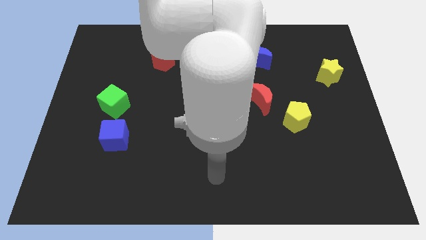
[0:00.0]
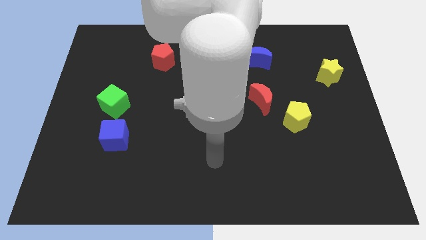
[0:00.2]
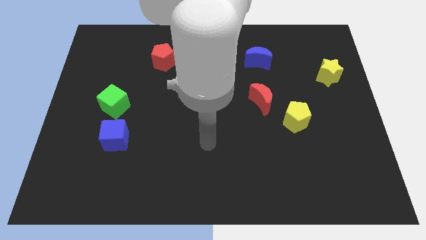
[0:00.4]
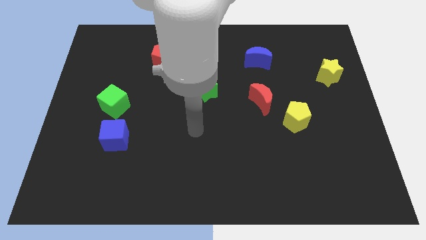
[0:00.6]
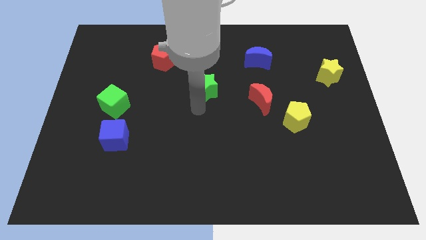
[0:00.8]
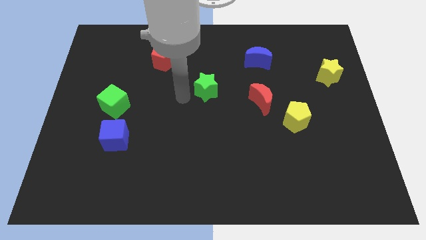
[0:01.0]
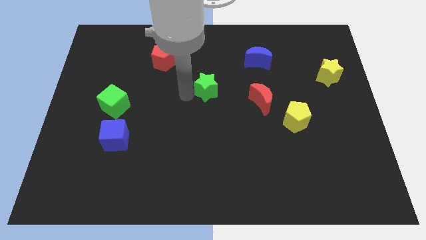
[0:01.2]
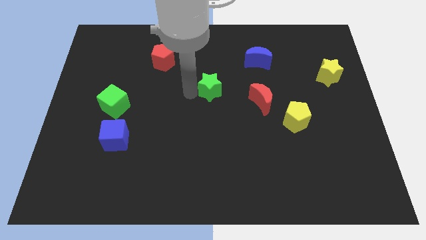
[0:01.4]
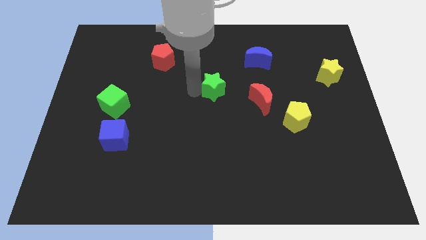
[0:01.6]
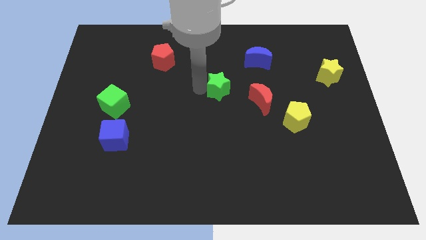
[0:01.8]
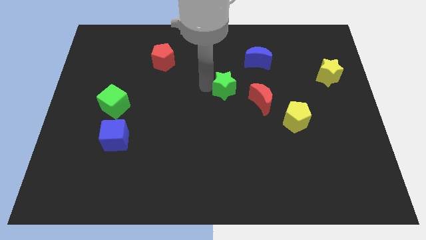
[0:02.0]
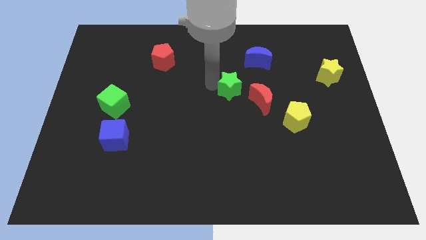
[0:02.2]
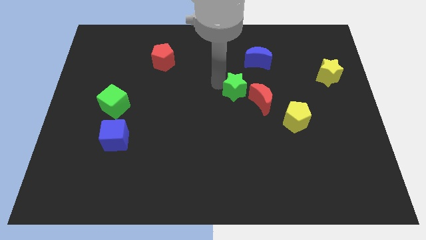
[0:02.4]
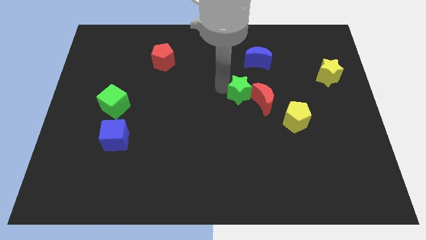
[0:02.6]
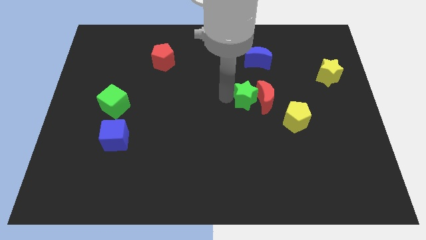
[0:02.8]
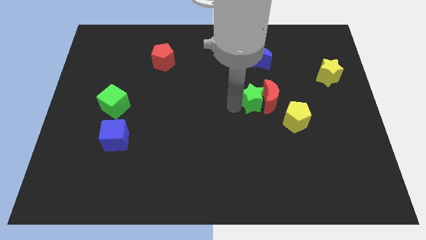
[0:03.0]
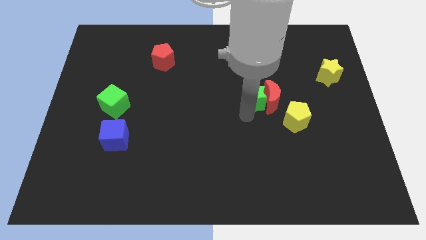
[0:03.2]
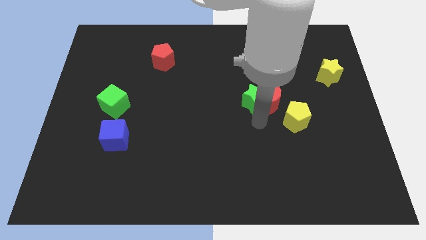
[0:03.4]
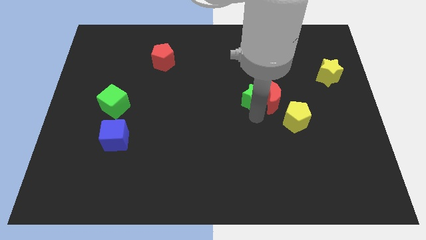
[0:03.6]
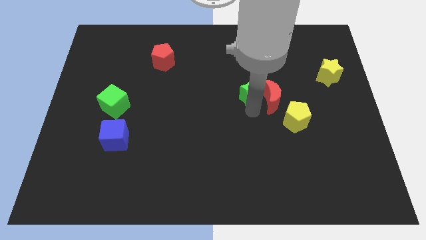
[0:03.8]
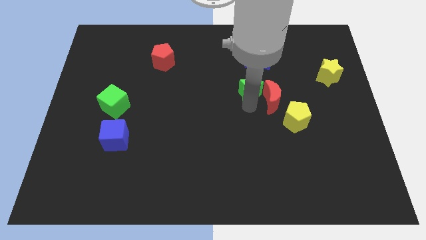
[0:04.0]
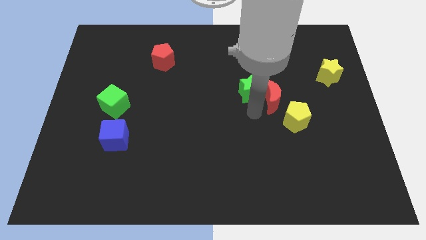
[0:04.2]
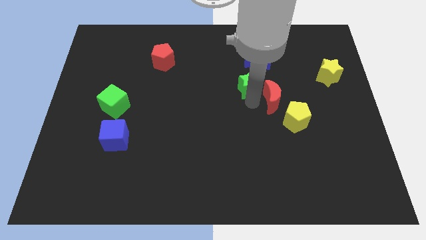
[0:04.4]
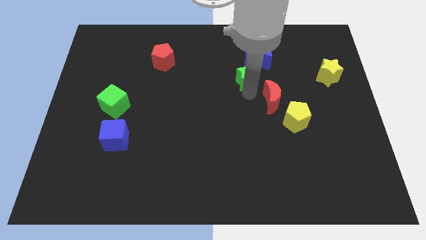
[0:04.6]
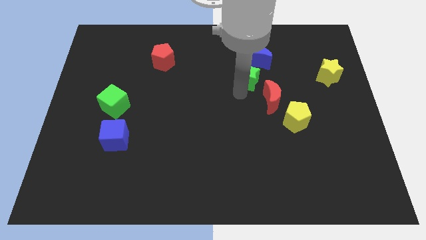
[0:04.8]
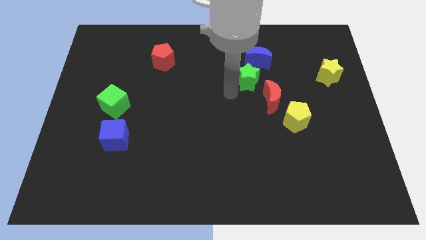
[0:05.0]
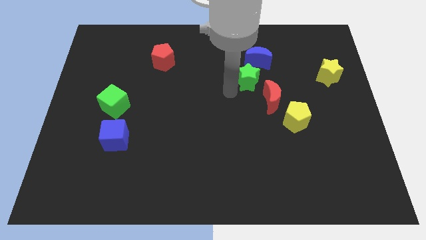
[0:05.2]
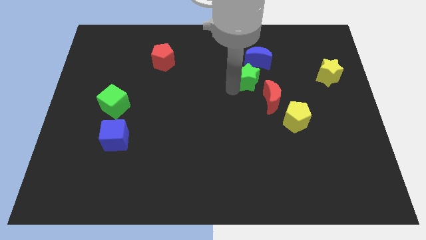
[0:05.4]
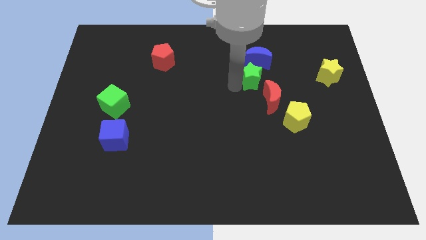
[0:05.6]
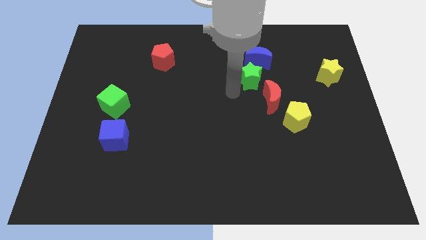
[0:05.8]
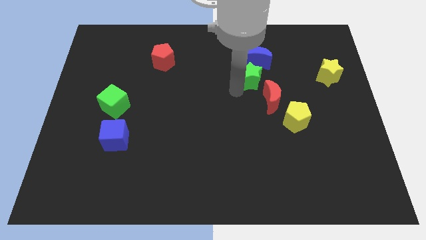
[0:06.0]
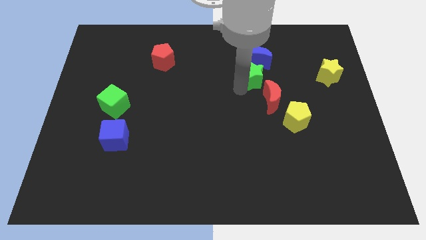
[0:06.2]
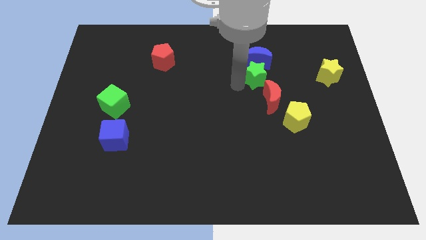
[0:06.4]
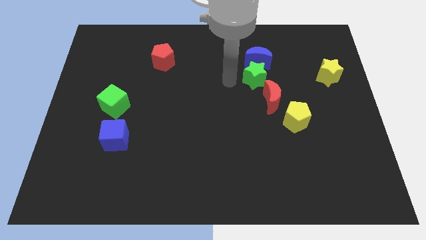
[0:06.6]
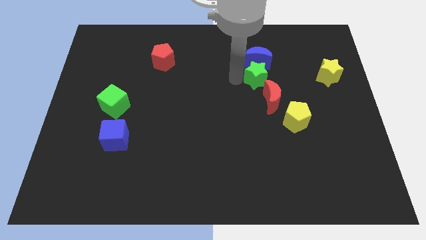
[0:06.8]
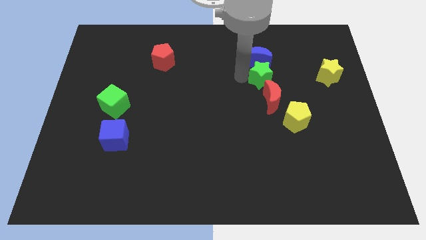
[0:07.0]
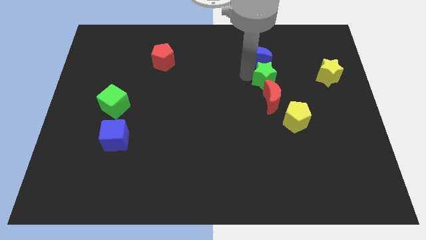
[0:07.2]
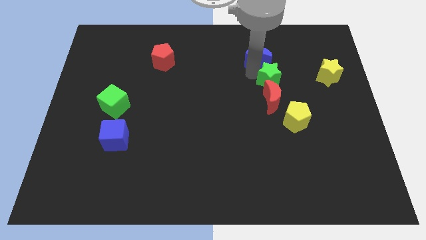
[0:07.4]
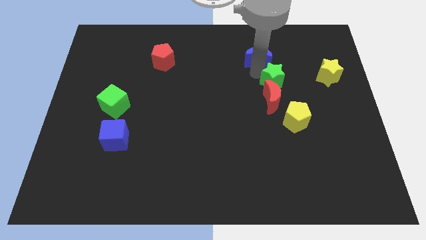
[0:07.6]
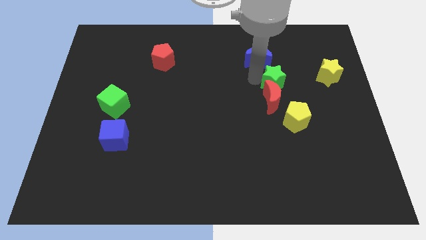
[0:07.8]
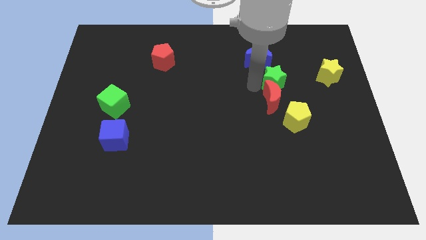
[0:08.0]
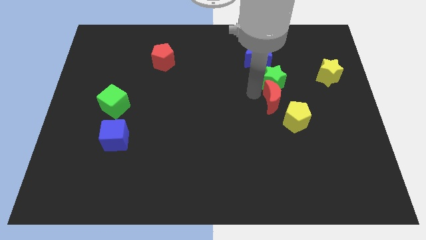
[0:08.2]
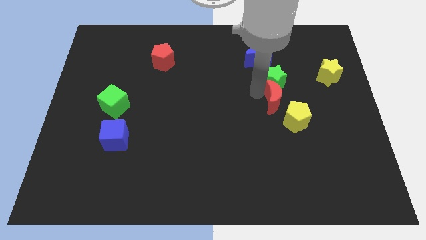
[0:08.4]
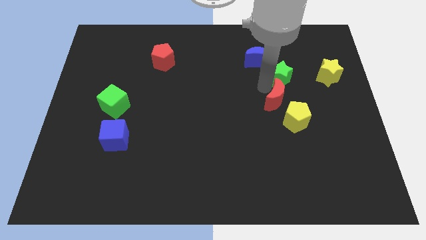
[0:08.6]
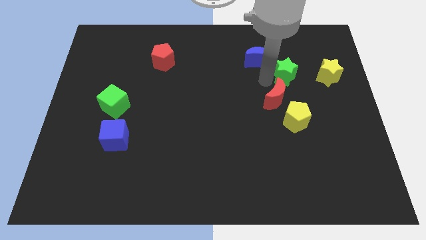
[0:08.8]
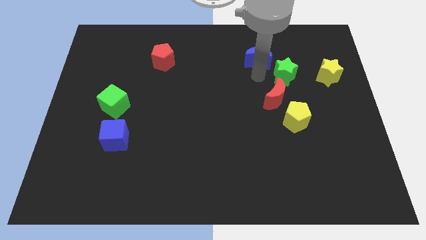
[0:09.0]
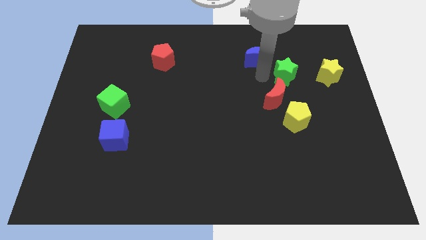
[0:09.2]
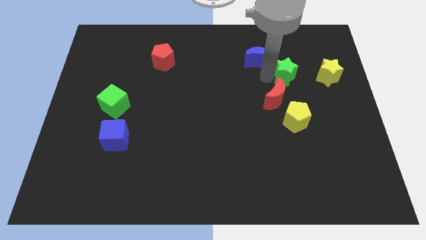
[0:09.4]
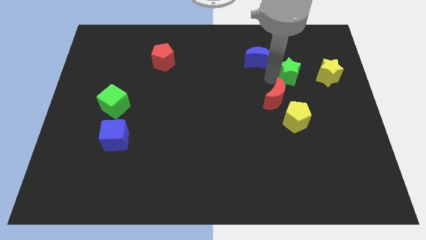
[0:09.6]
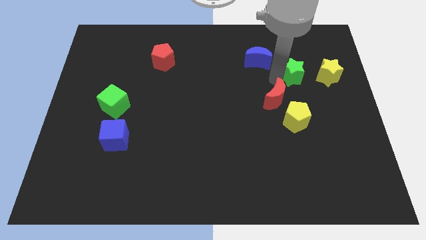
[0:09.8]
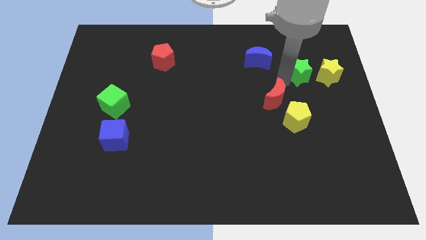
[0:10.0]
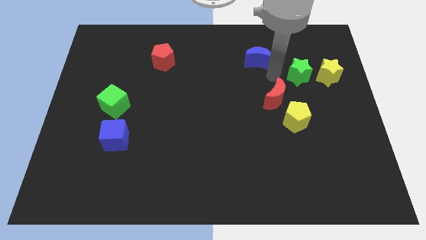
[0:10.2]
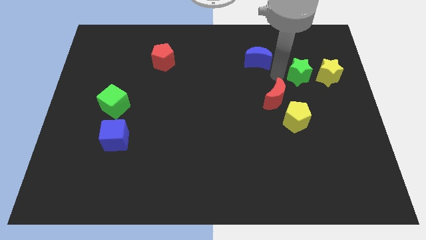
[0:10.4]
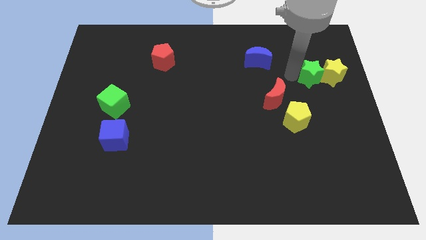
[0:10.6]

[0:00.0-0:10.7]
move the green star close to the yellow star

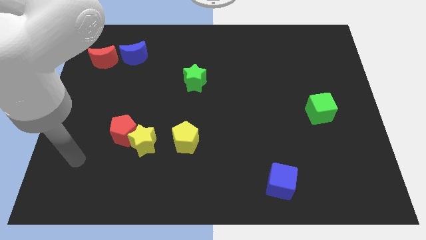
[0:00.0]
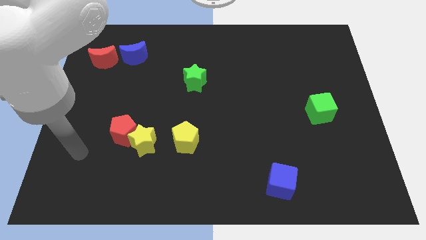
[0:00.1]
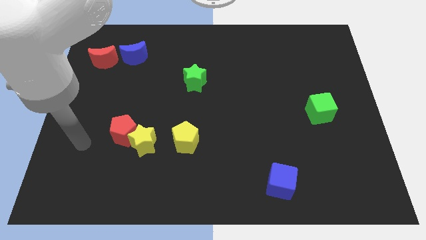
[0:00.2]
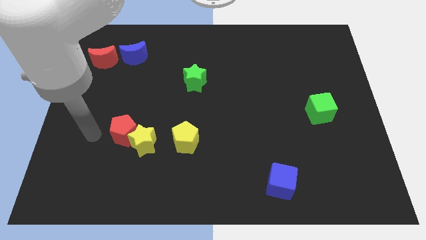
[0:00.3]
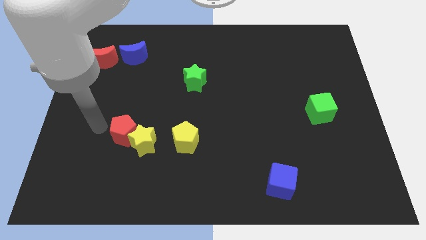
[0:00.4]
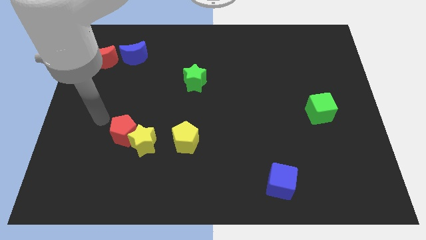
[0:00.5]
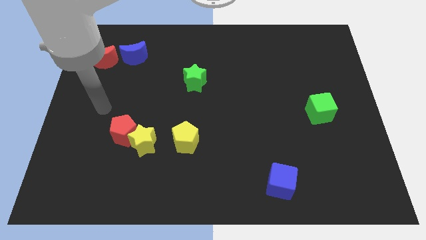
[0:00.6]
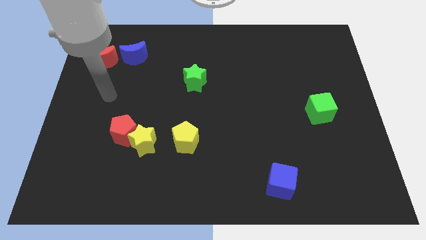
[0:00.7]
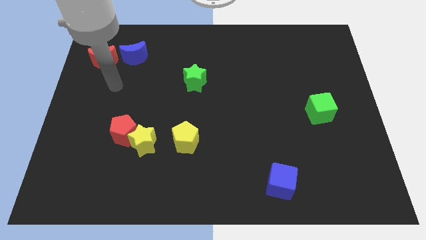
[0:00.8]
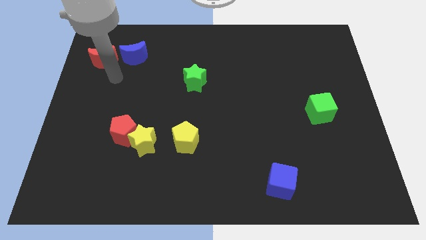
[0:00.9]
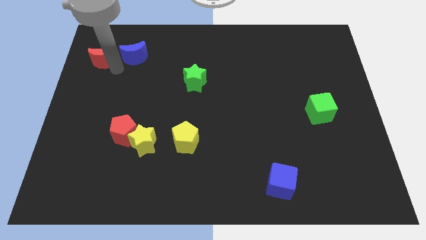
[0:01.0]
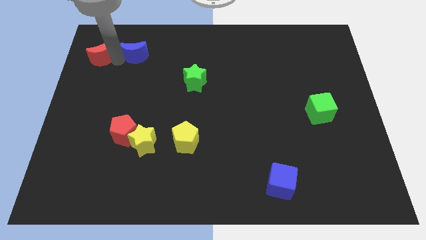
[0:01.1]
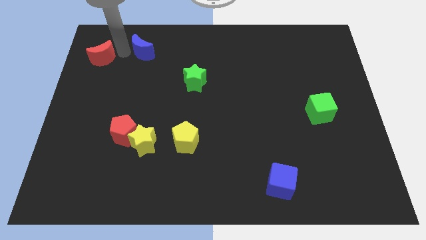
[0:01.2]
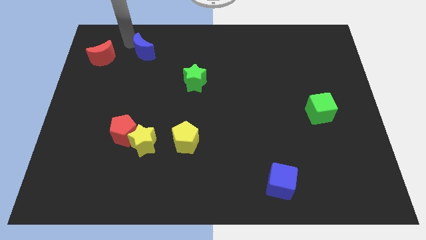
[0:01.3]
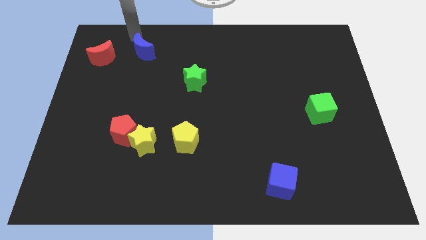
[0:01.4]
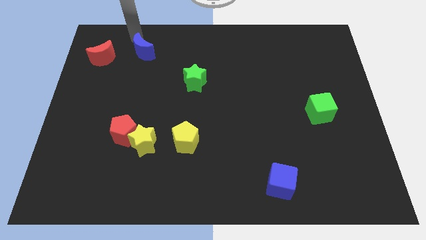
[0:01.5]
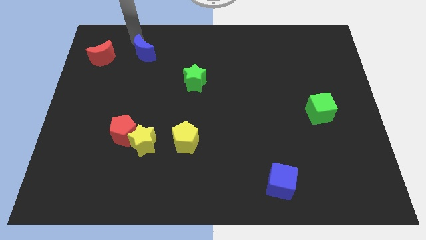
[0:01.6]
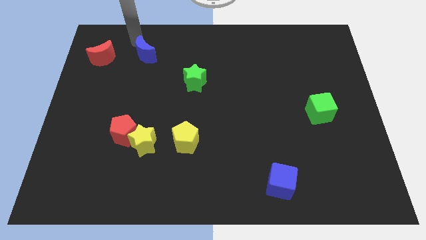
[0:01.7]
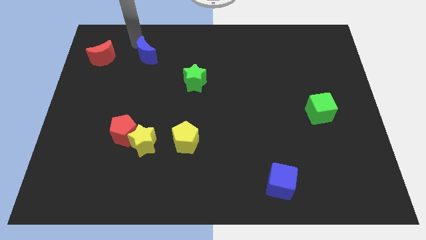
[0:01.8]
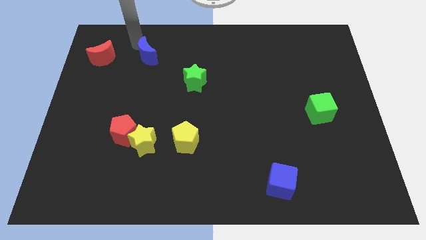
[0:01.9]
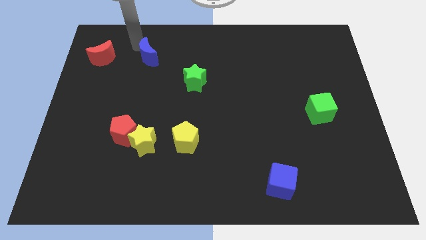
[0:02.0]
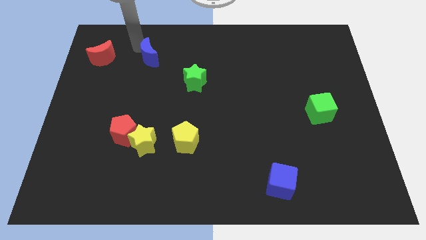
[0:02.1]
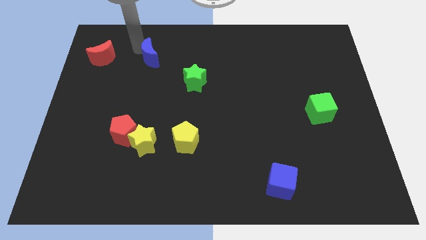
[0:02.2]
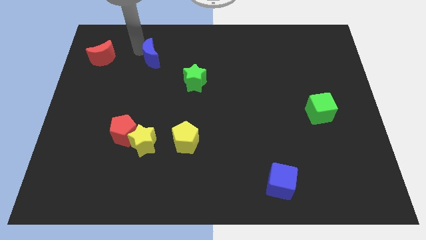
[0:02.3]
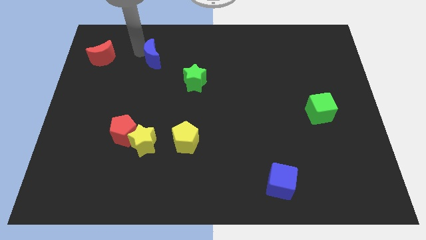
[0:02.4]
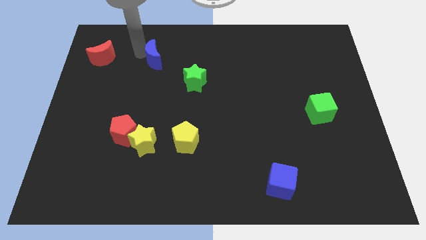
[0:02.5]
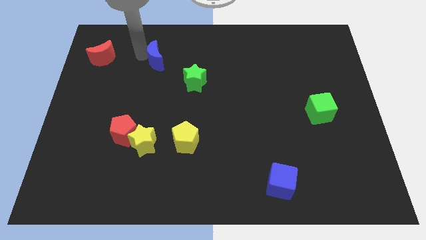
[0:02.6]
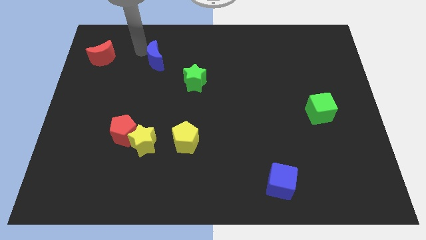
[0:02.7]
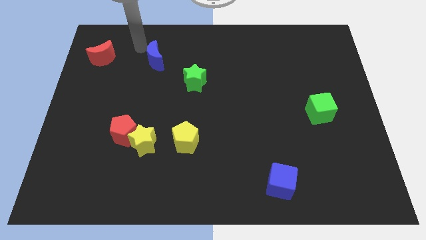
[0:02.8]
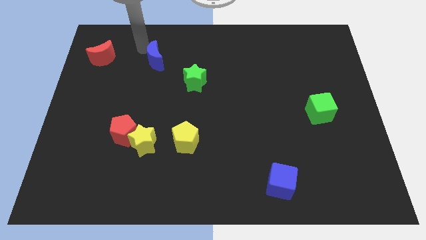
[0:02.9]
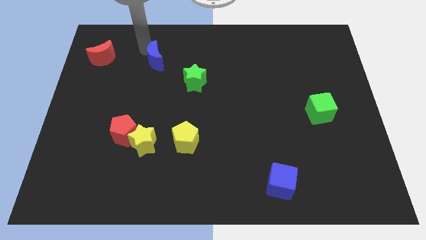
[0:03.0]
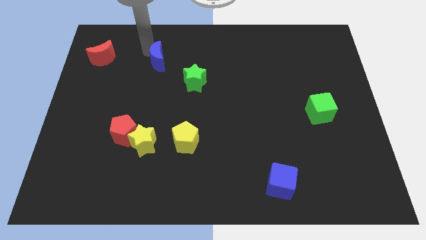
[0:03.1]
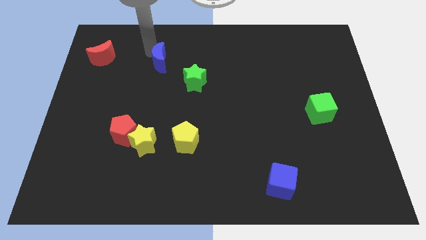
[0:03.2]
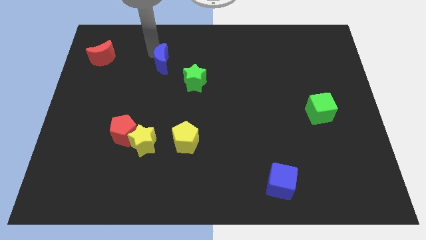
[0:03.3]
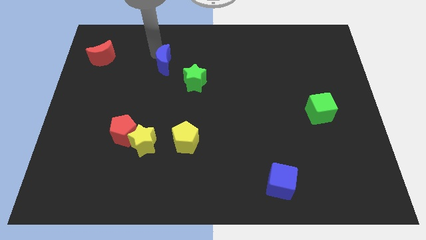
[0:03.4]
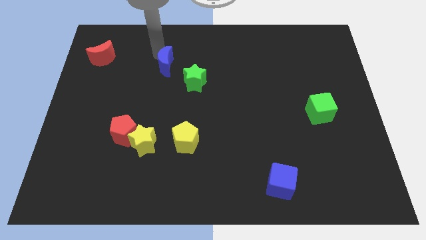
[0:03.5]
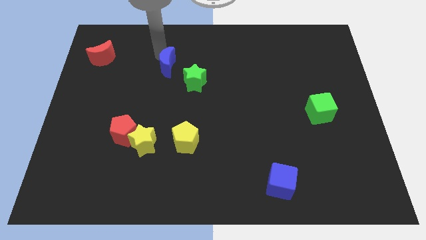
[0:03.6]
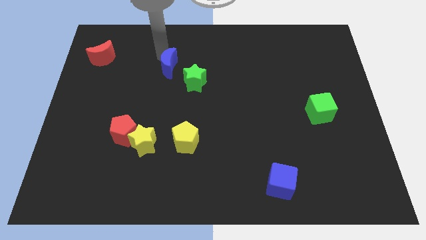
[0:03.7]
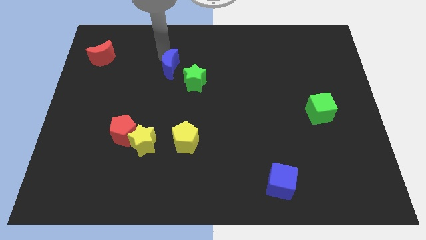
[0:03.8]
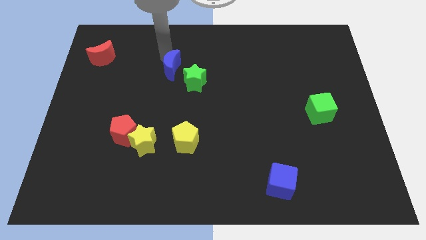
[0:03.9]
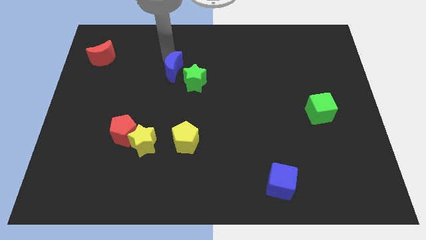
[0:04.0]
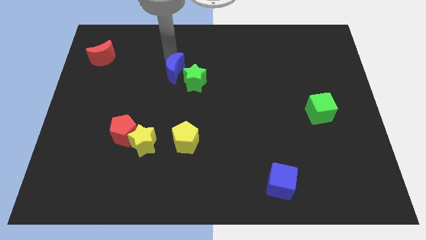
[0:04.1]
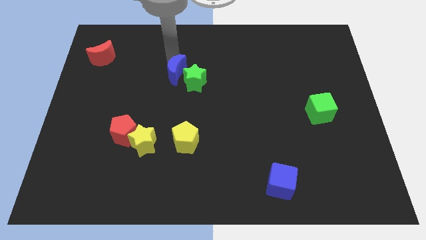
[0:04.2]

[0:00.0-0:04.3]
put the blue moon towards the green star
